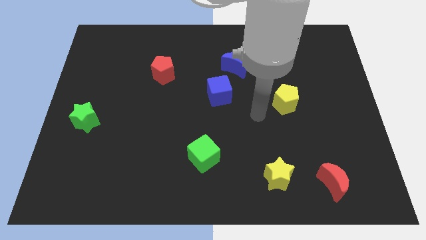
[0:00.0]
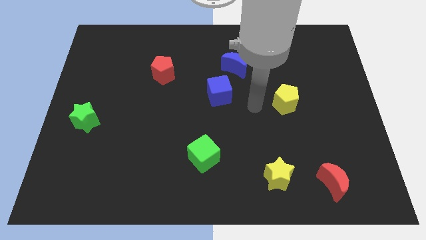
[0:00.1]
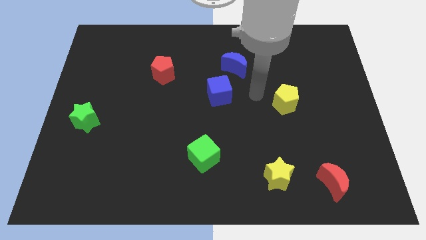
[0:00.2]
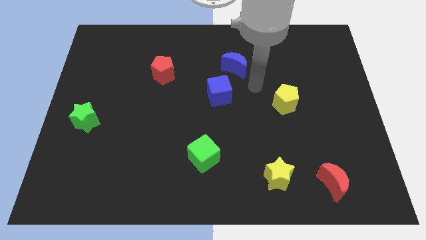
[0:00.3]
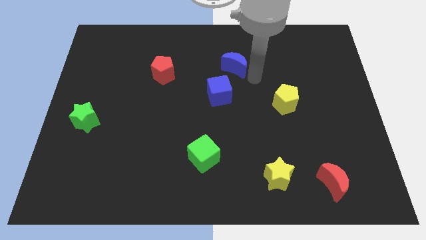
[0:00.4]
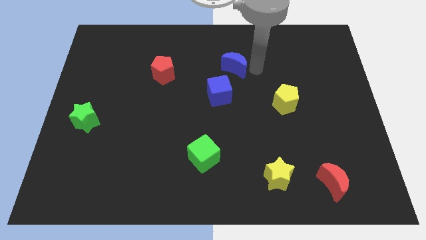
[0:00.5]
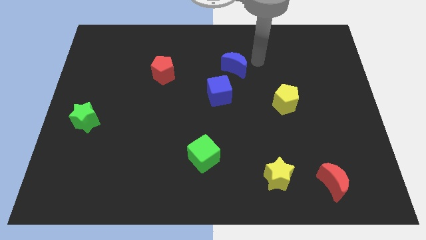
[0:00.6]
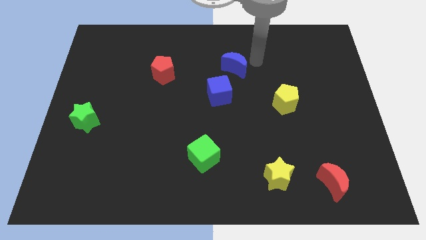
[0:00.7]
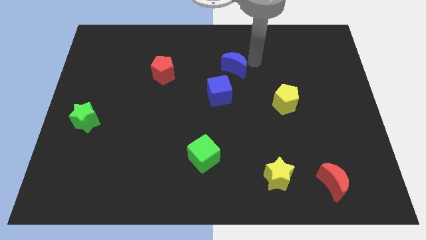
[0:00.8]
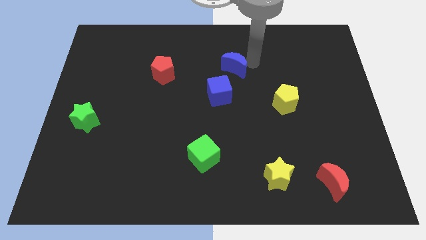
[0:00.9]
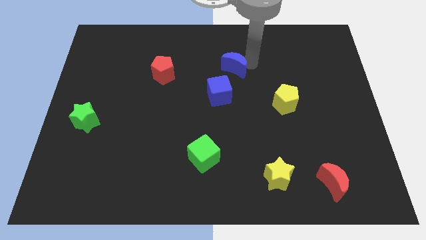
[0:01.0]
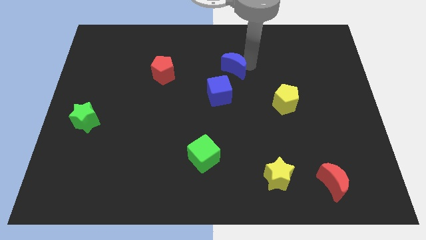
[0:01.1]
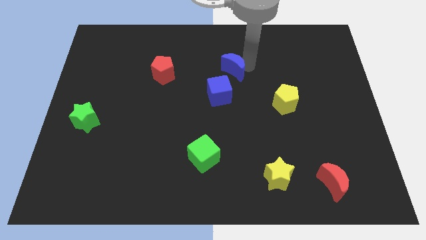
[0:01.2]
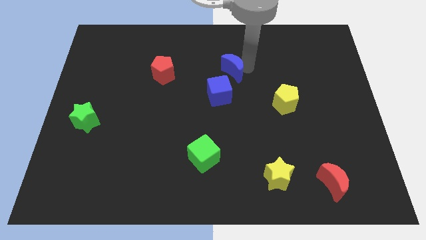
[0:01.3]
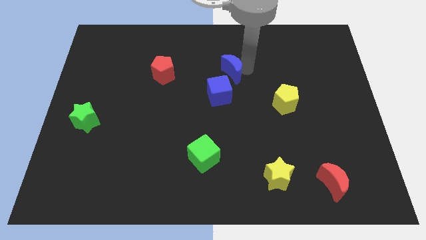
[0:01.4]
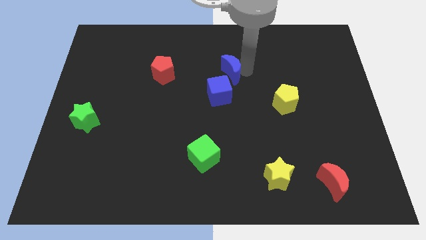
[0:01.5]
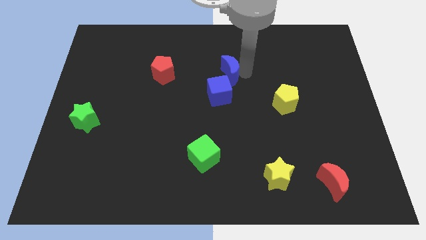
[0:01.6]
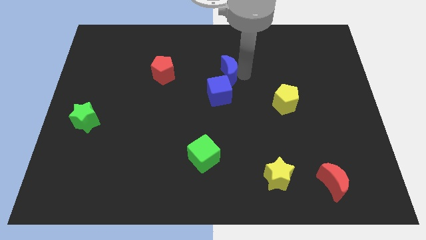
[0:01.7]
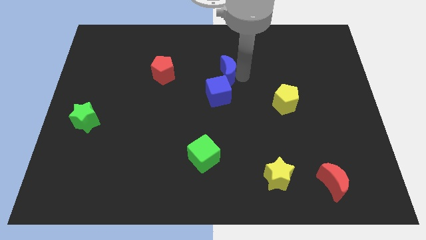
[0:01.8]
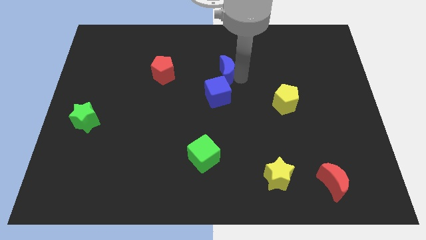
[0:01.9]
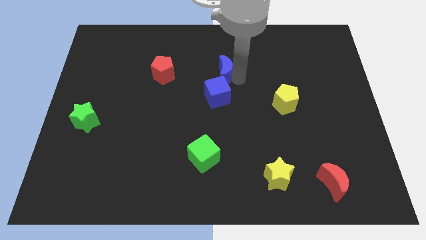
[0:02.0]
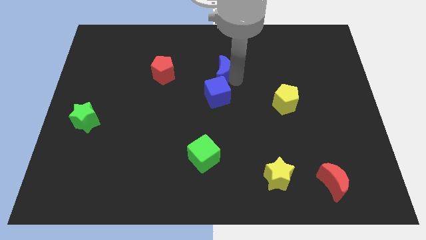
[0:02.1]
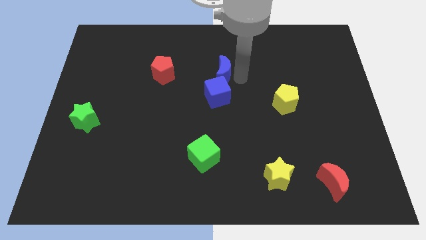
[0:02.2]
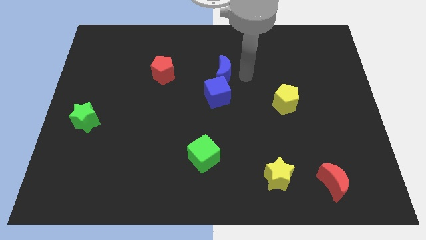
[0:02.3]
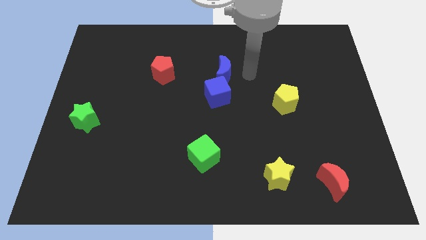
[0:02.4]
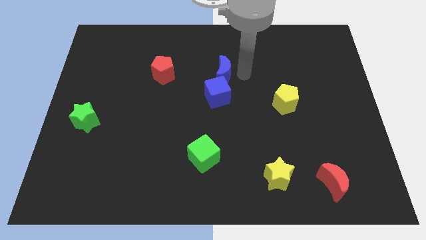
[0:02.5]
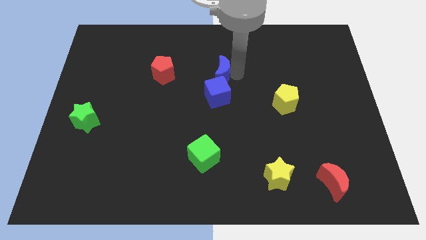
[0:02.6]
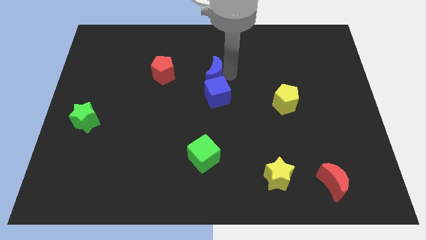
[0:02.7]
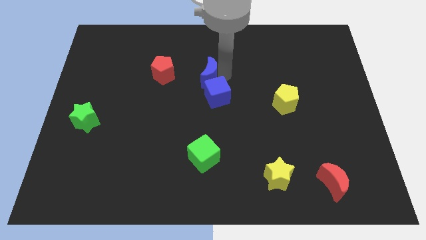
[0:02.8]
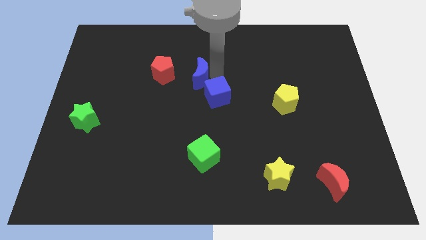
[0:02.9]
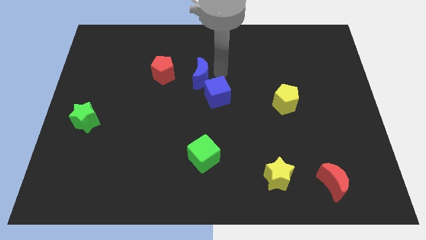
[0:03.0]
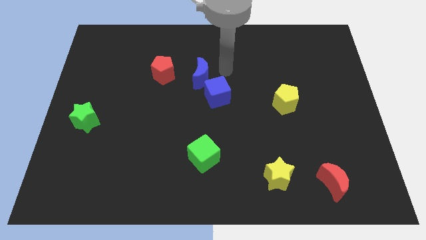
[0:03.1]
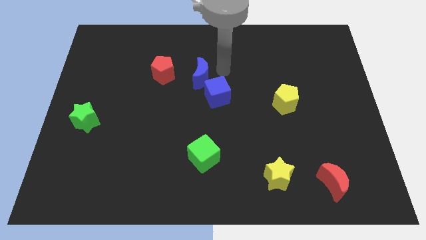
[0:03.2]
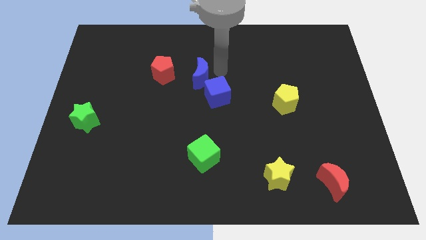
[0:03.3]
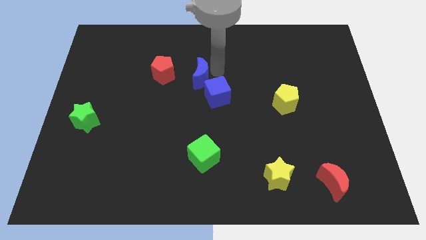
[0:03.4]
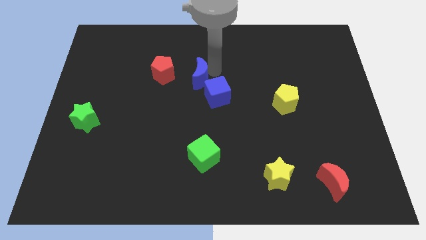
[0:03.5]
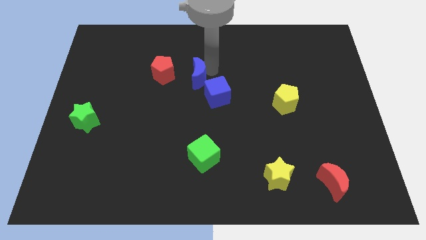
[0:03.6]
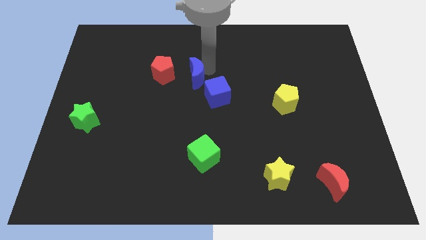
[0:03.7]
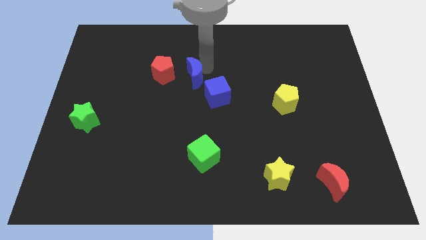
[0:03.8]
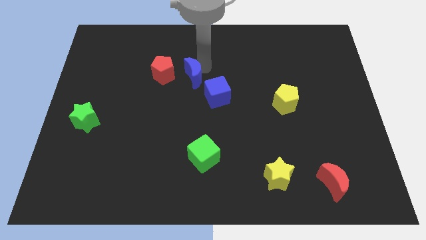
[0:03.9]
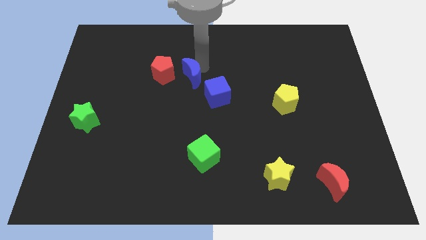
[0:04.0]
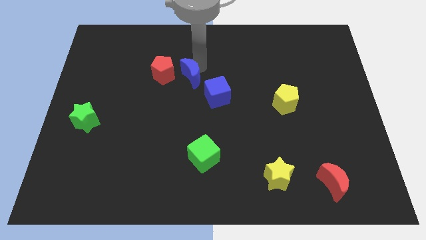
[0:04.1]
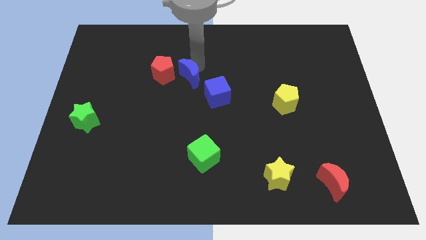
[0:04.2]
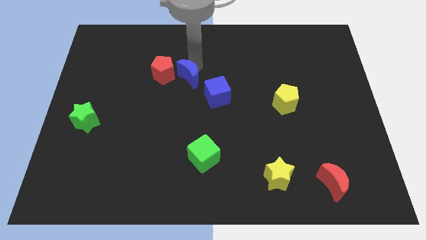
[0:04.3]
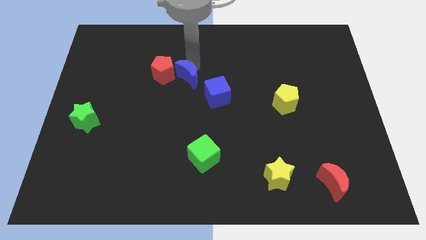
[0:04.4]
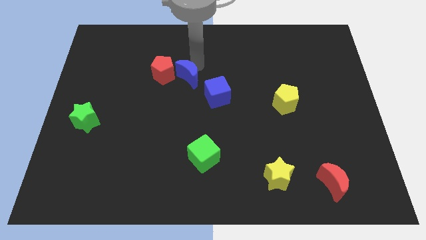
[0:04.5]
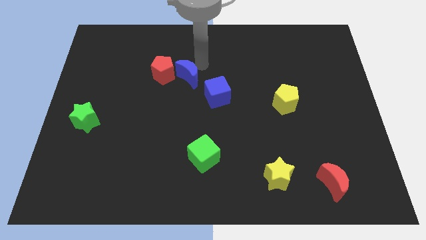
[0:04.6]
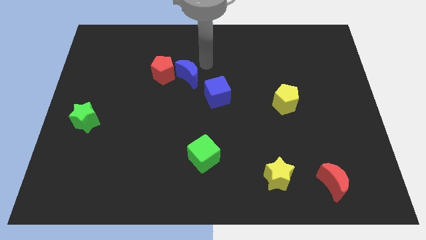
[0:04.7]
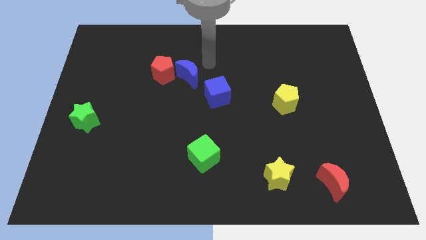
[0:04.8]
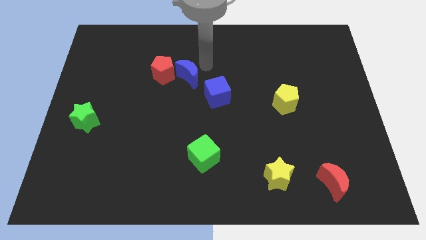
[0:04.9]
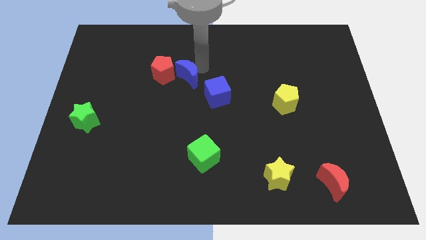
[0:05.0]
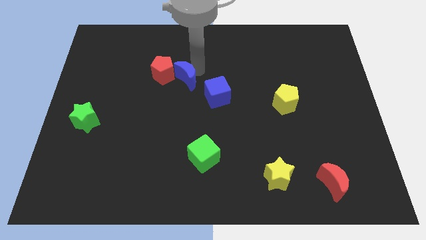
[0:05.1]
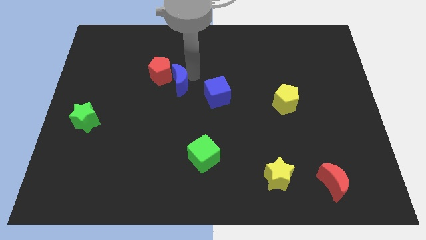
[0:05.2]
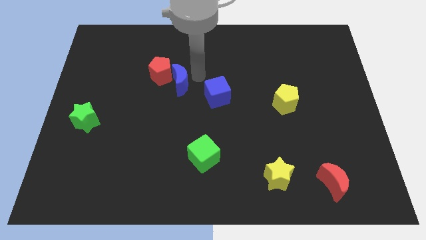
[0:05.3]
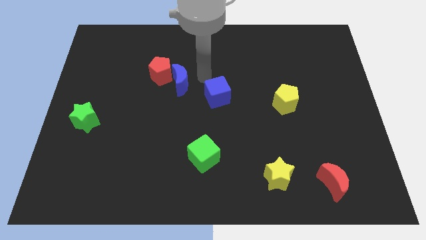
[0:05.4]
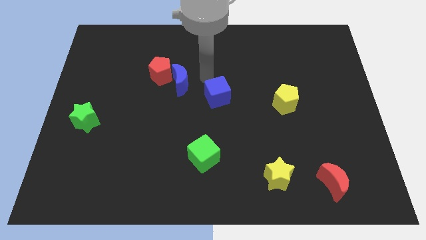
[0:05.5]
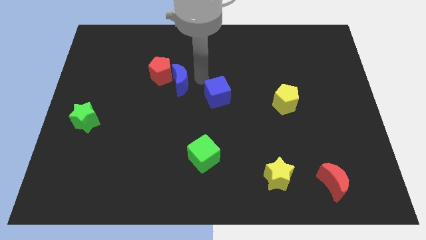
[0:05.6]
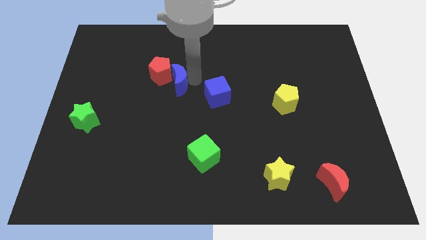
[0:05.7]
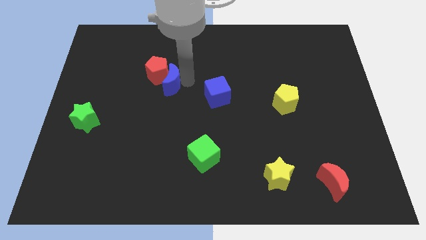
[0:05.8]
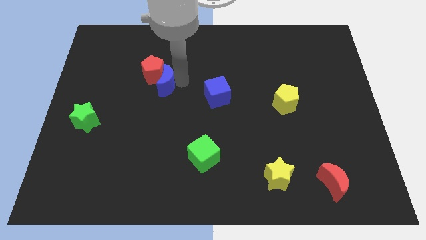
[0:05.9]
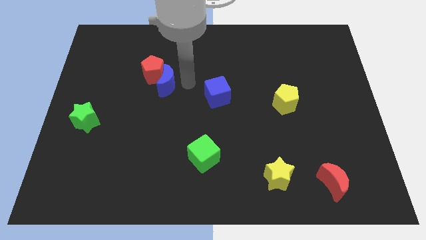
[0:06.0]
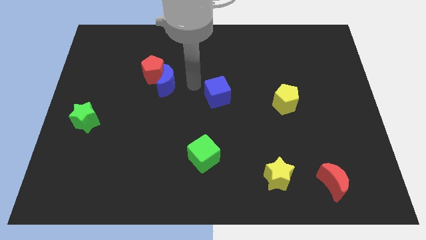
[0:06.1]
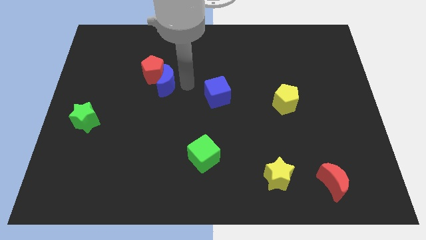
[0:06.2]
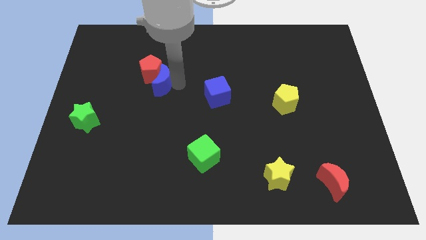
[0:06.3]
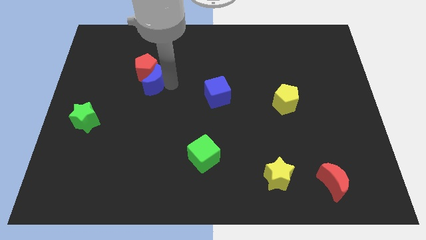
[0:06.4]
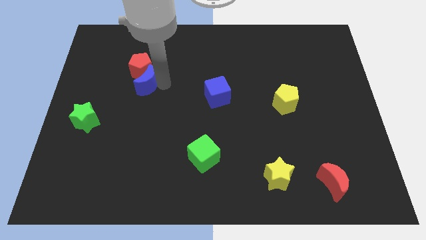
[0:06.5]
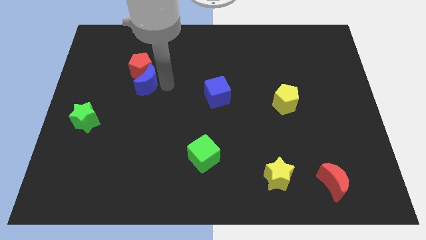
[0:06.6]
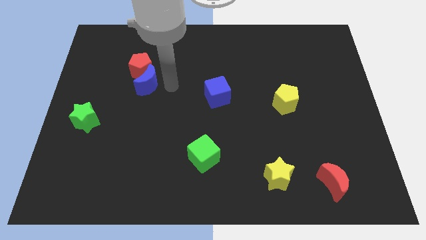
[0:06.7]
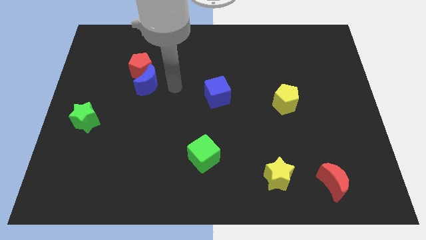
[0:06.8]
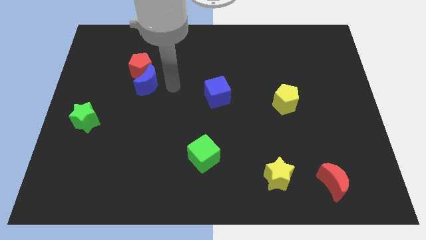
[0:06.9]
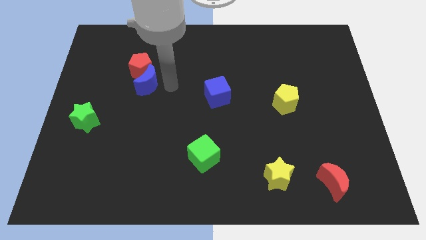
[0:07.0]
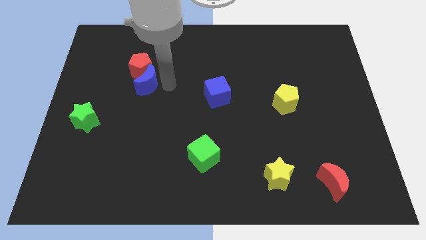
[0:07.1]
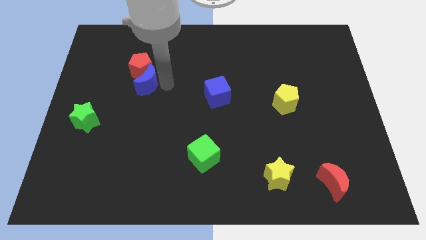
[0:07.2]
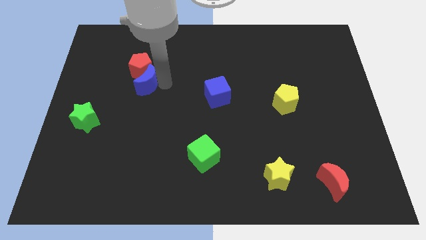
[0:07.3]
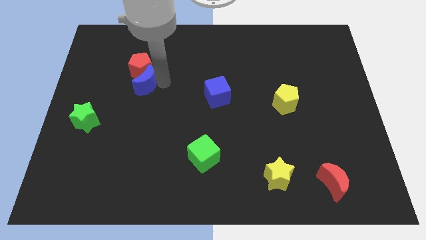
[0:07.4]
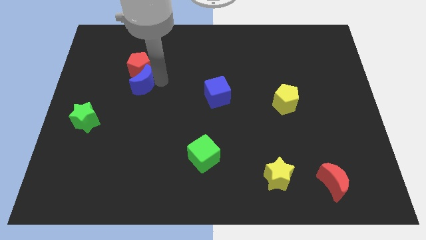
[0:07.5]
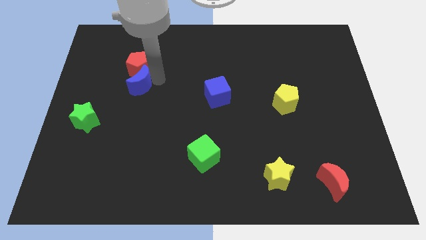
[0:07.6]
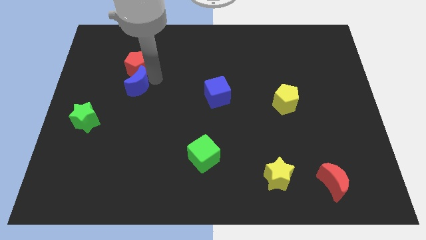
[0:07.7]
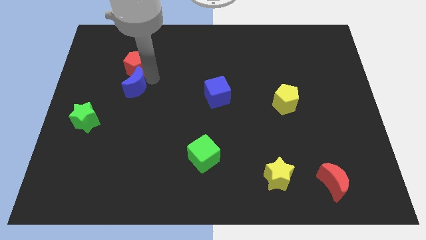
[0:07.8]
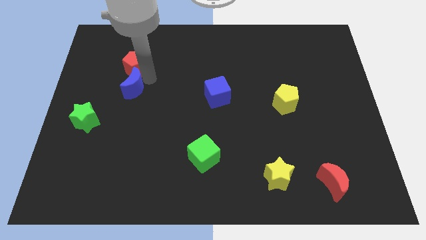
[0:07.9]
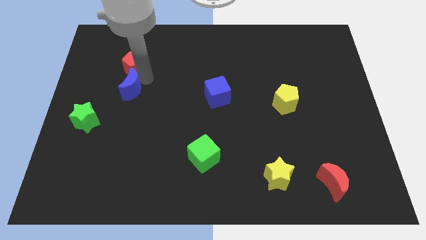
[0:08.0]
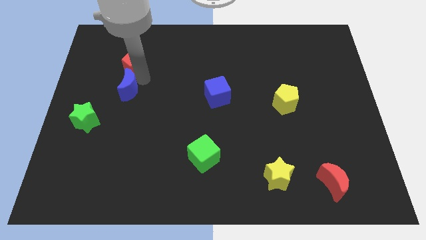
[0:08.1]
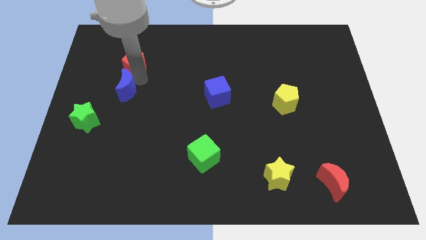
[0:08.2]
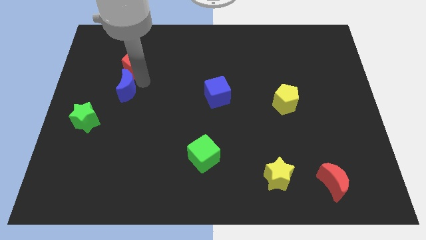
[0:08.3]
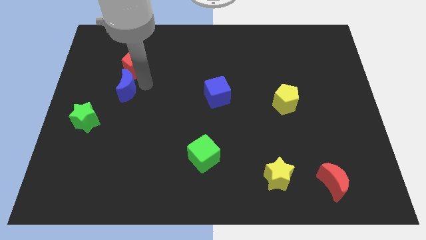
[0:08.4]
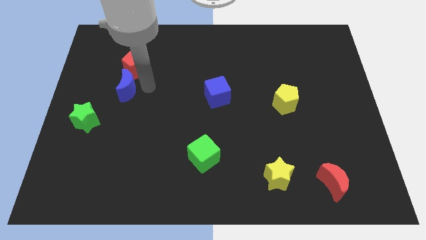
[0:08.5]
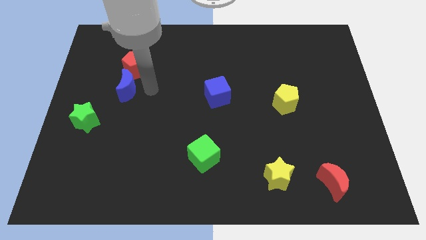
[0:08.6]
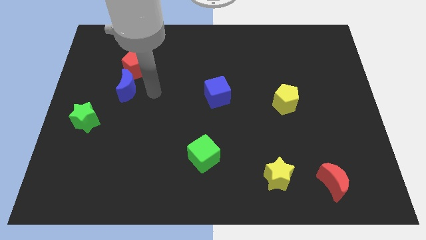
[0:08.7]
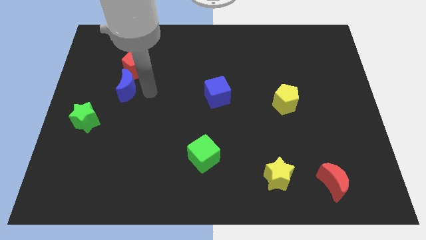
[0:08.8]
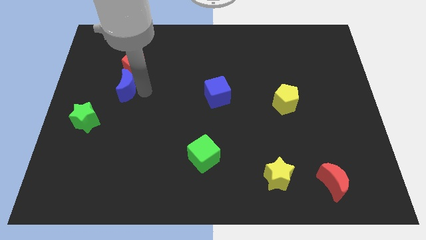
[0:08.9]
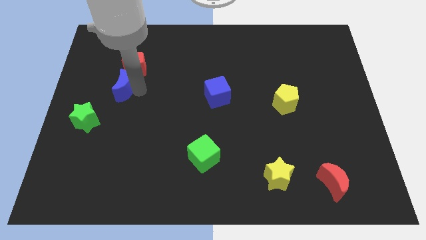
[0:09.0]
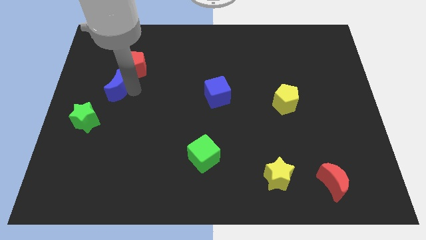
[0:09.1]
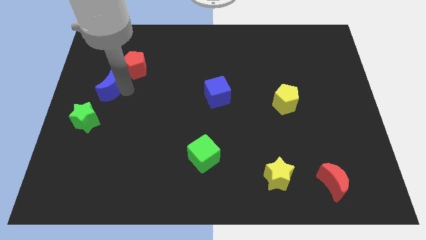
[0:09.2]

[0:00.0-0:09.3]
push the blue moon to the top of the green star
